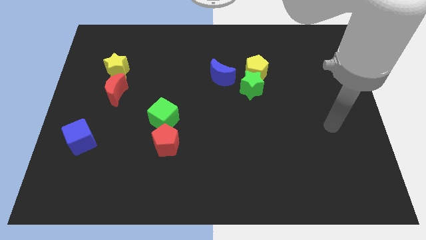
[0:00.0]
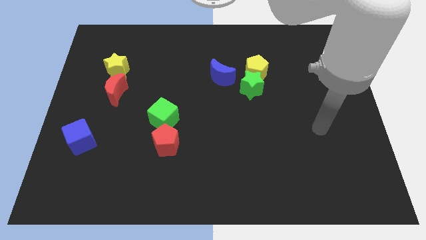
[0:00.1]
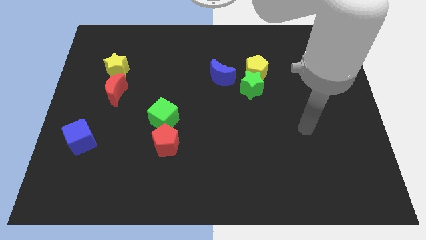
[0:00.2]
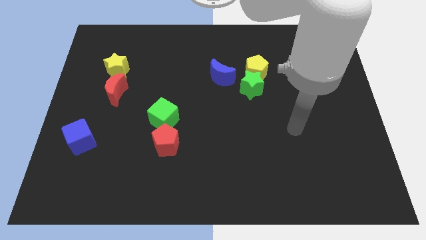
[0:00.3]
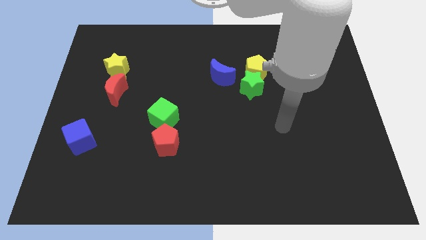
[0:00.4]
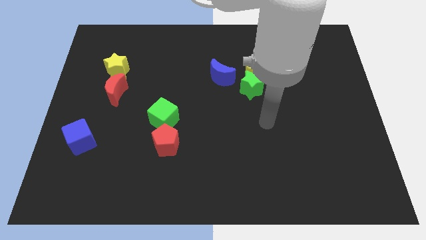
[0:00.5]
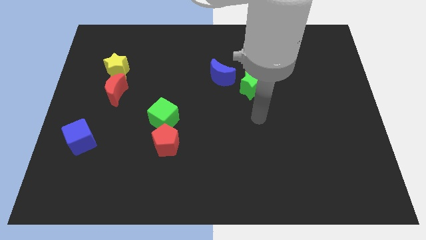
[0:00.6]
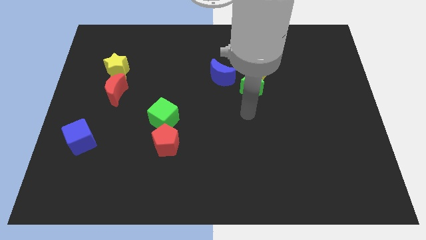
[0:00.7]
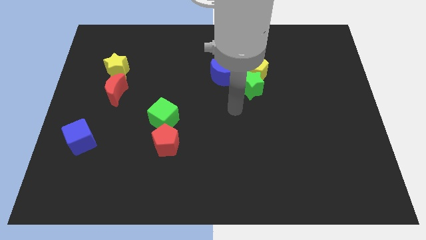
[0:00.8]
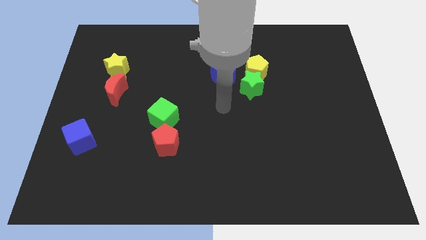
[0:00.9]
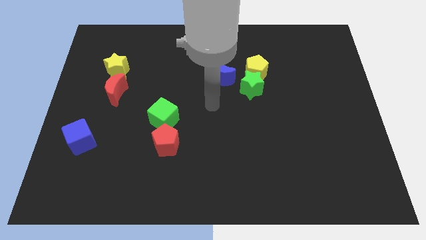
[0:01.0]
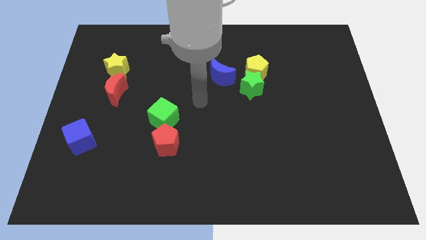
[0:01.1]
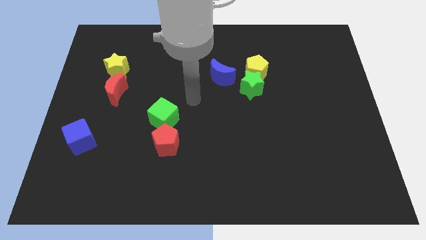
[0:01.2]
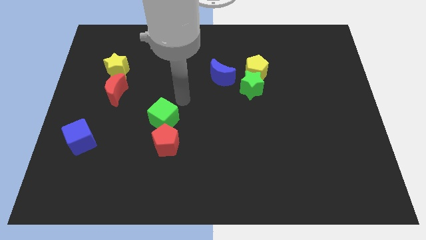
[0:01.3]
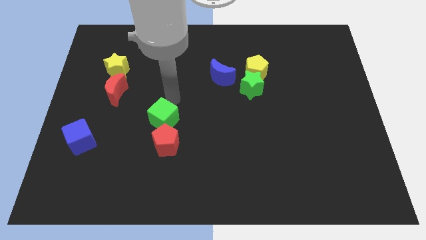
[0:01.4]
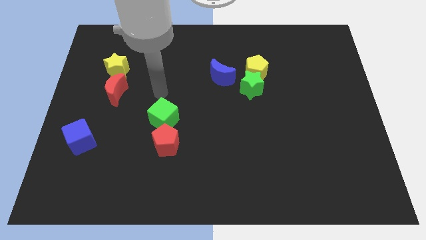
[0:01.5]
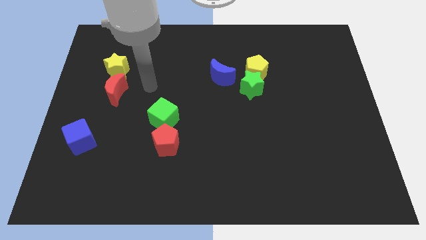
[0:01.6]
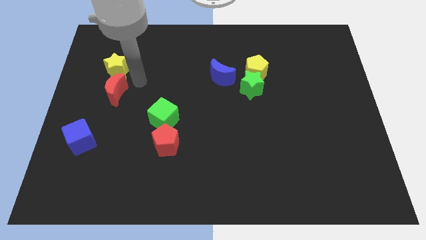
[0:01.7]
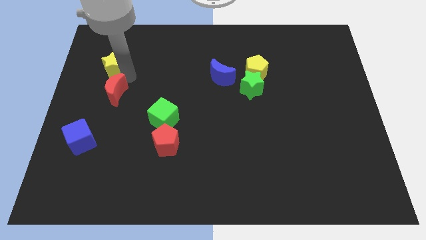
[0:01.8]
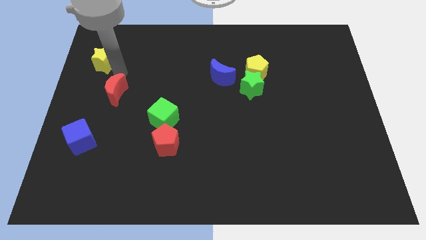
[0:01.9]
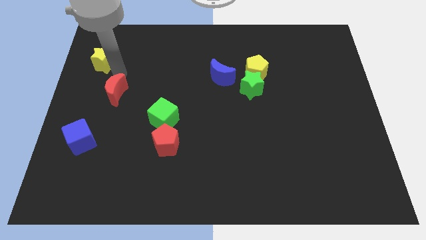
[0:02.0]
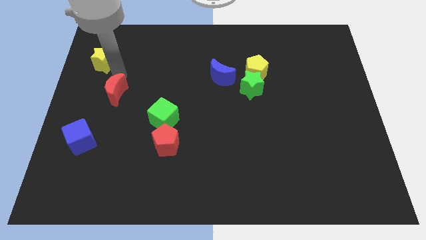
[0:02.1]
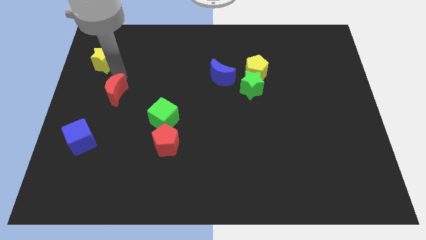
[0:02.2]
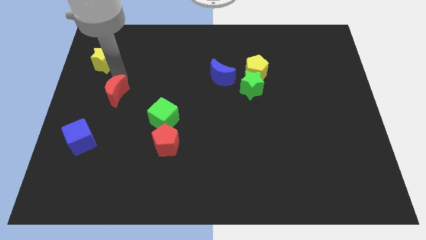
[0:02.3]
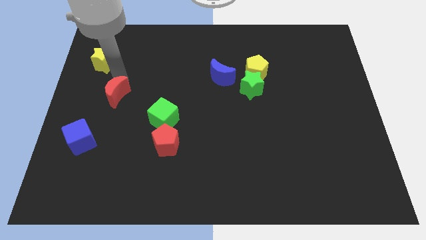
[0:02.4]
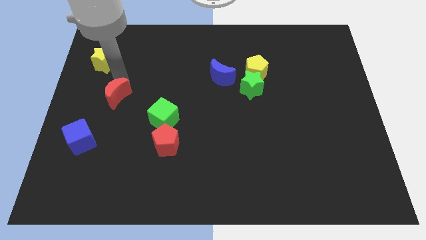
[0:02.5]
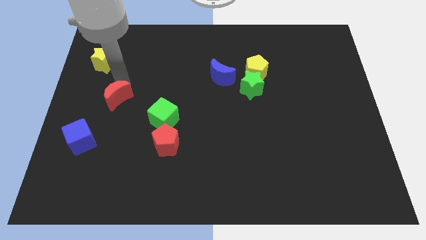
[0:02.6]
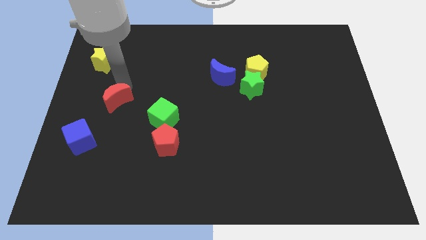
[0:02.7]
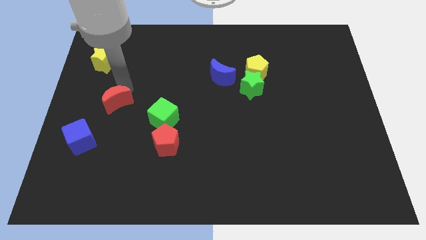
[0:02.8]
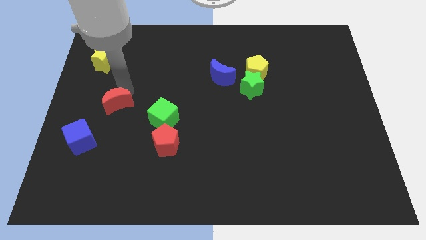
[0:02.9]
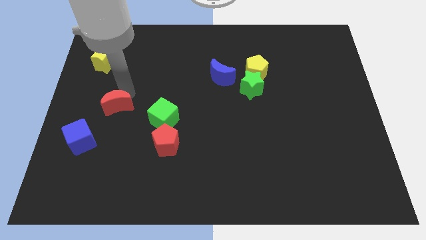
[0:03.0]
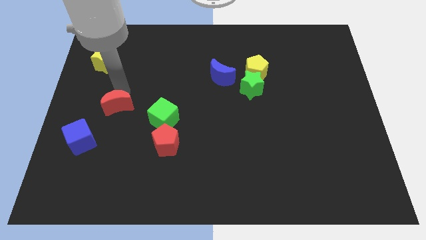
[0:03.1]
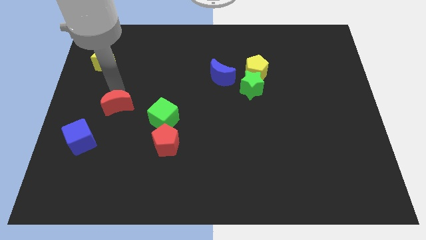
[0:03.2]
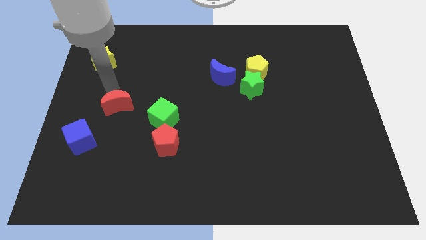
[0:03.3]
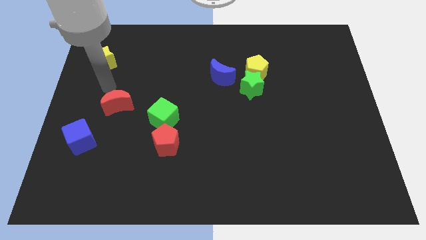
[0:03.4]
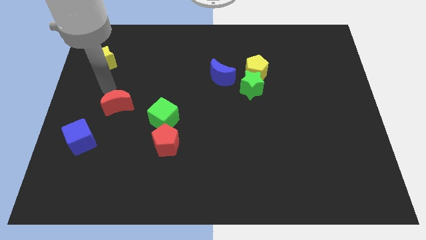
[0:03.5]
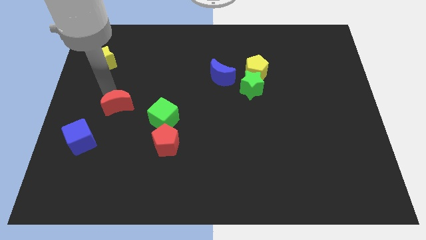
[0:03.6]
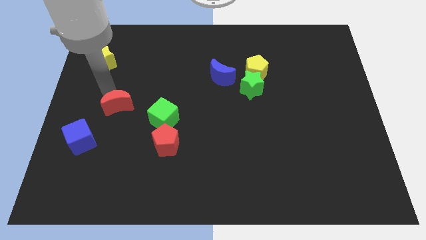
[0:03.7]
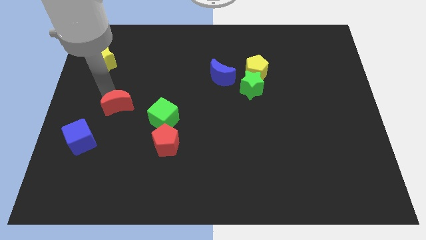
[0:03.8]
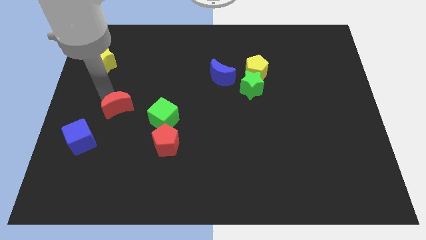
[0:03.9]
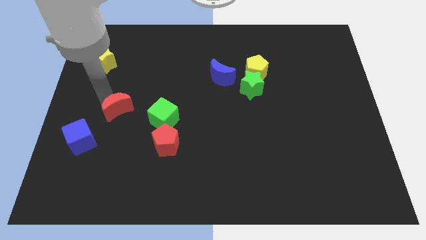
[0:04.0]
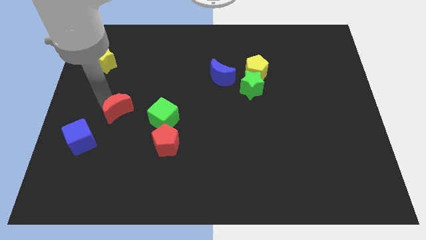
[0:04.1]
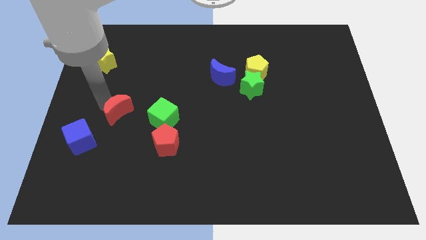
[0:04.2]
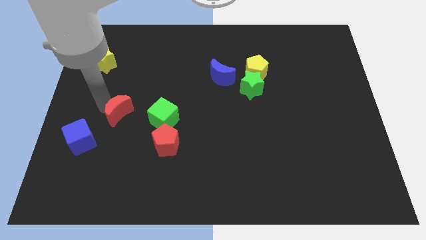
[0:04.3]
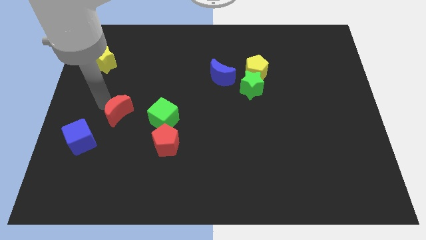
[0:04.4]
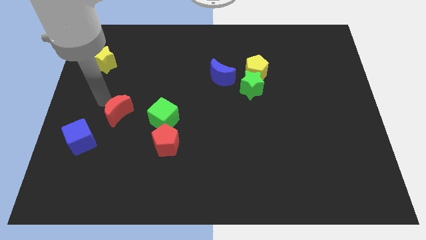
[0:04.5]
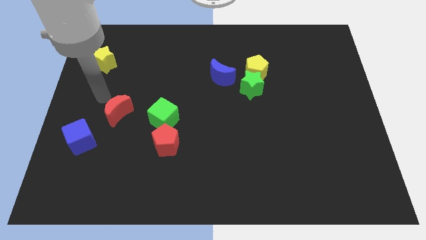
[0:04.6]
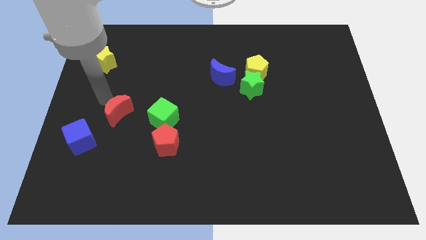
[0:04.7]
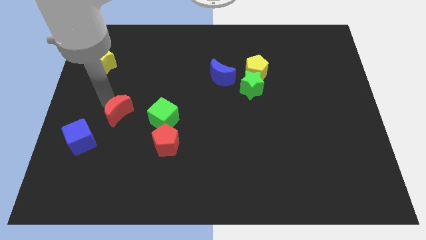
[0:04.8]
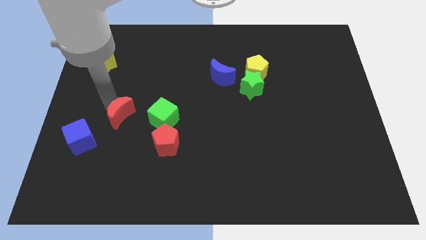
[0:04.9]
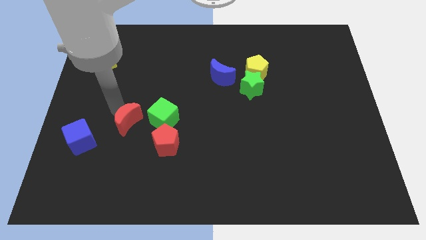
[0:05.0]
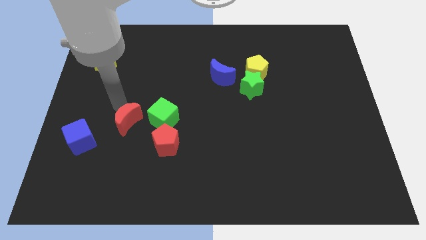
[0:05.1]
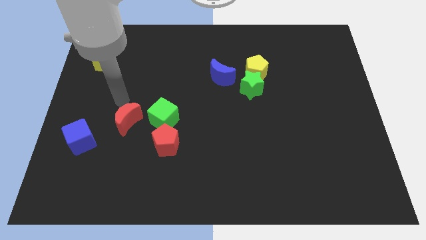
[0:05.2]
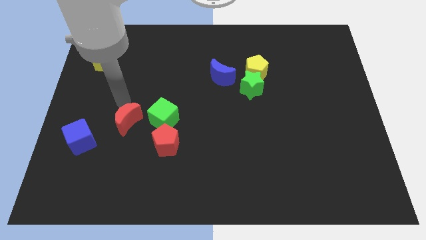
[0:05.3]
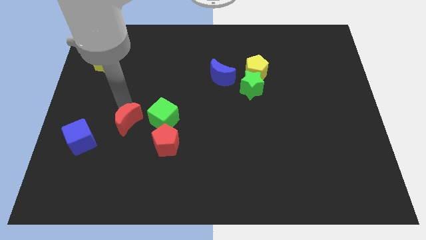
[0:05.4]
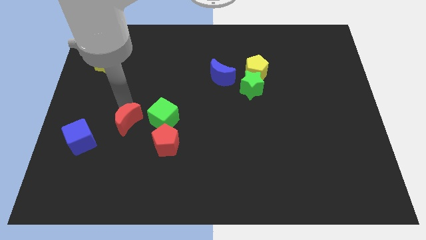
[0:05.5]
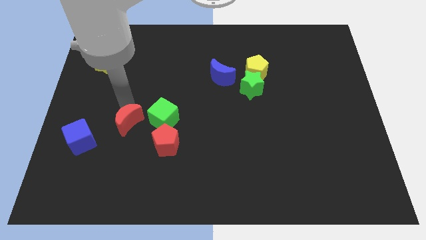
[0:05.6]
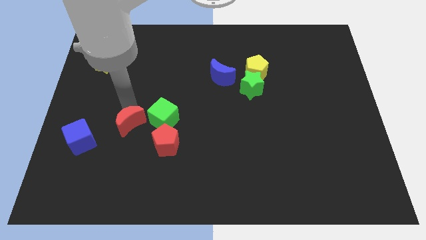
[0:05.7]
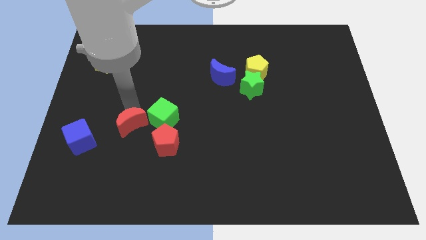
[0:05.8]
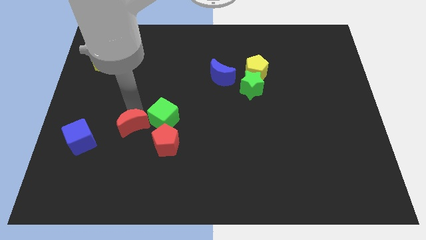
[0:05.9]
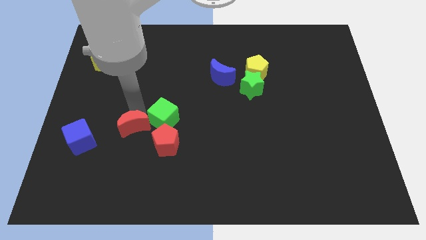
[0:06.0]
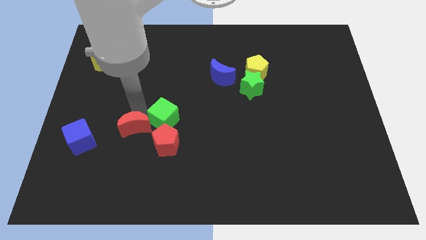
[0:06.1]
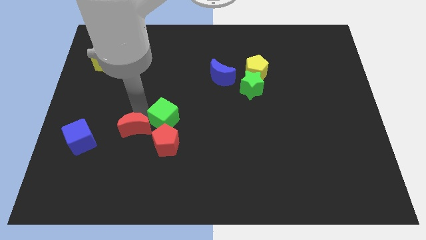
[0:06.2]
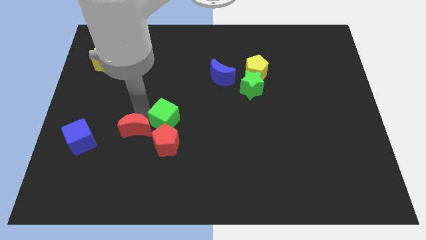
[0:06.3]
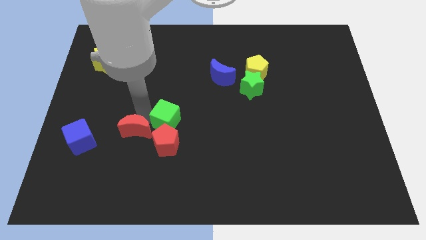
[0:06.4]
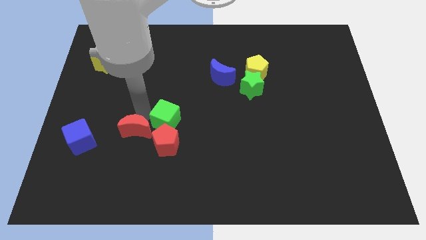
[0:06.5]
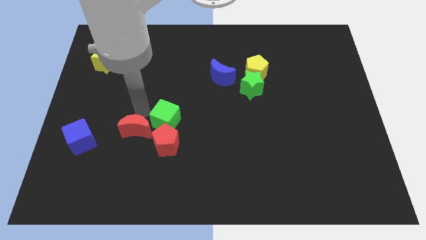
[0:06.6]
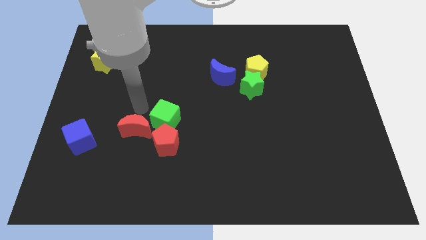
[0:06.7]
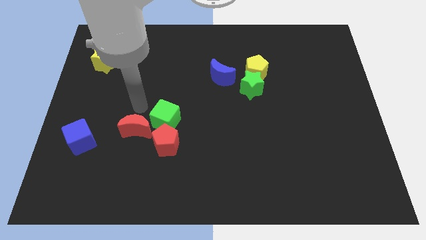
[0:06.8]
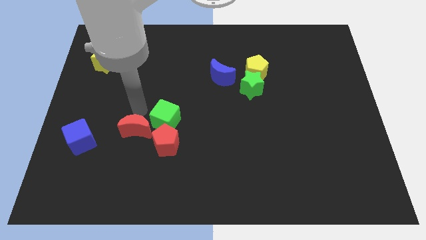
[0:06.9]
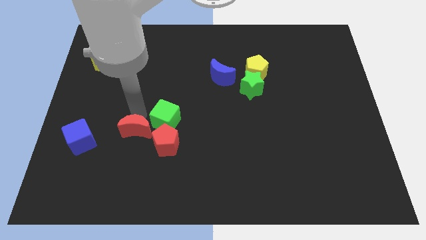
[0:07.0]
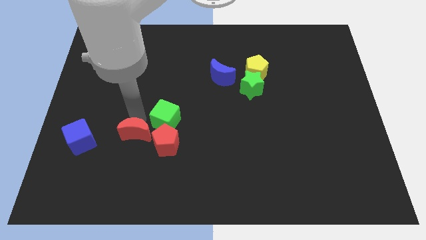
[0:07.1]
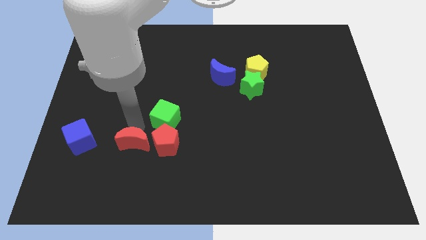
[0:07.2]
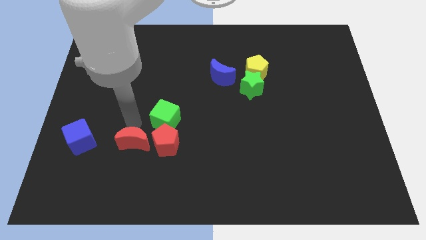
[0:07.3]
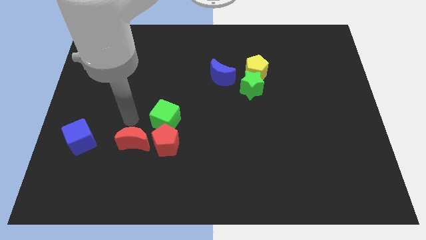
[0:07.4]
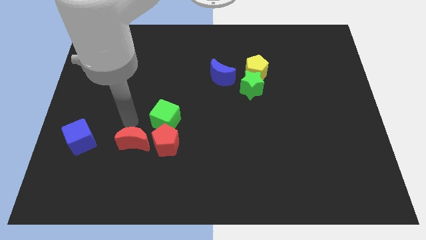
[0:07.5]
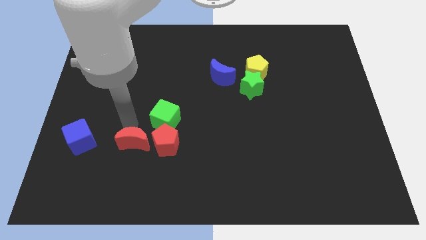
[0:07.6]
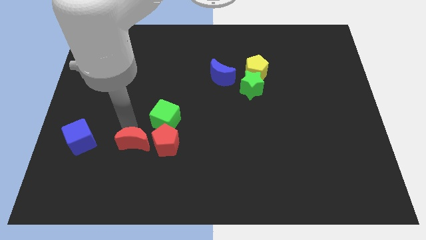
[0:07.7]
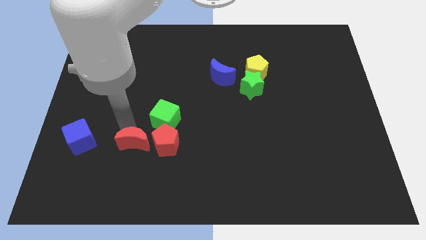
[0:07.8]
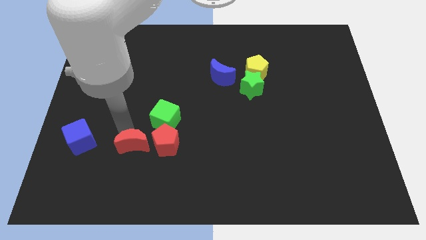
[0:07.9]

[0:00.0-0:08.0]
put the red moon diagonally down and to the left of the red pentagon
